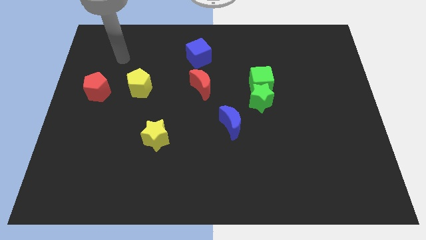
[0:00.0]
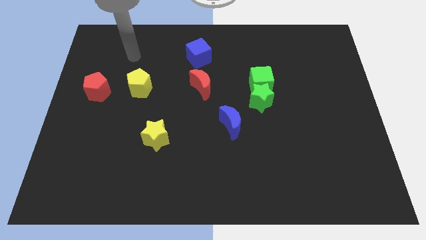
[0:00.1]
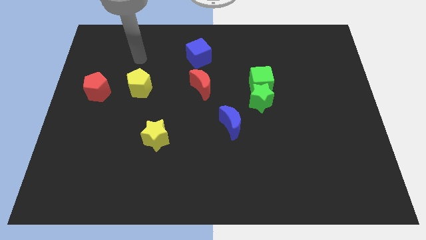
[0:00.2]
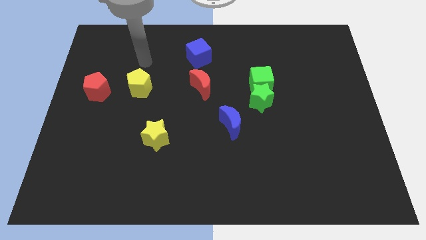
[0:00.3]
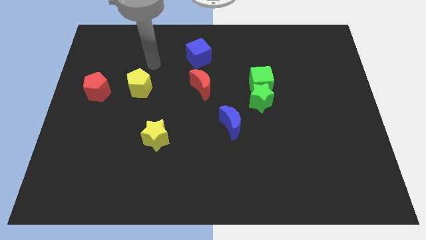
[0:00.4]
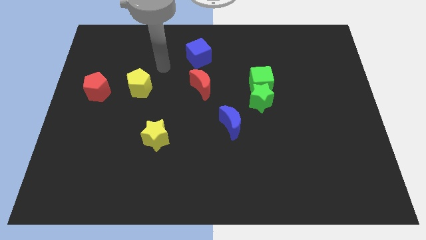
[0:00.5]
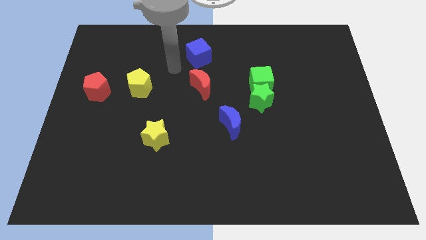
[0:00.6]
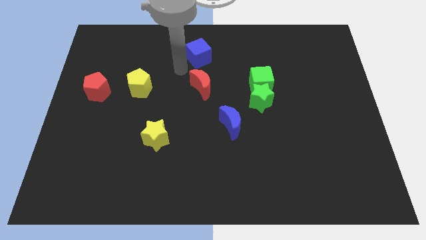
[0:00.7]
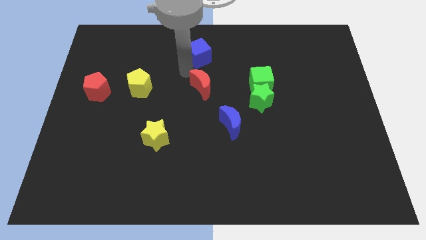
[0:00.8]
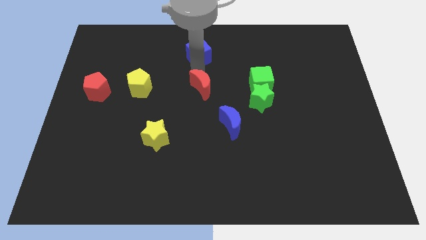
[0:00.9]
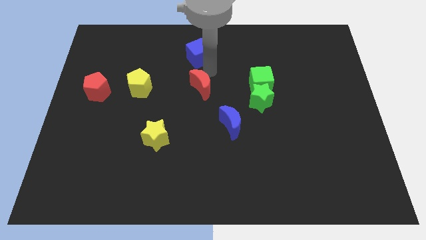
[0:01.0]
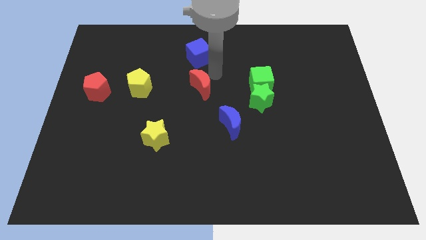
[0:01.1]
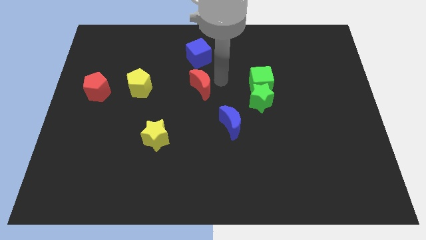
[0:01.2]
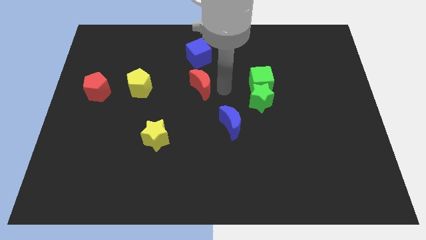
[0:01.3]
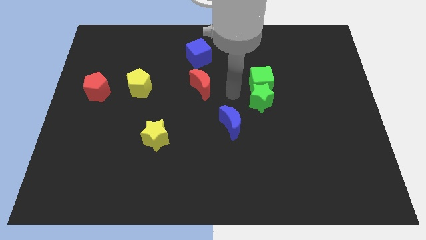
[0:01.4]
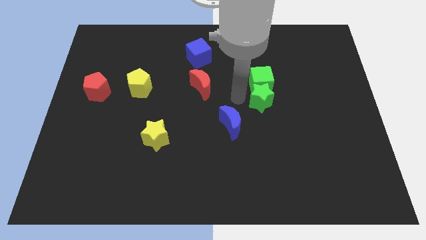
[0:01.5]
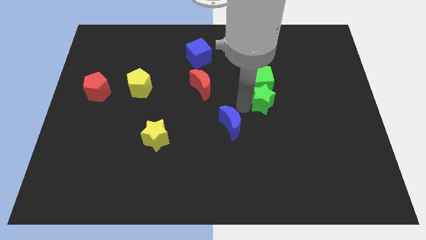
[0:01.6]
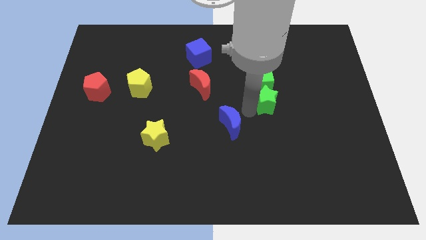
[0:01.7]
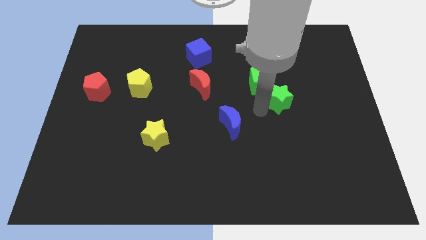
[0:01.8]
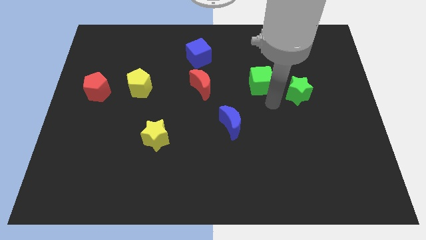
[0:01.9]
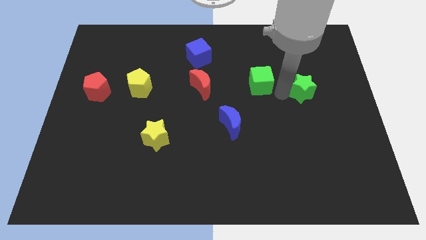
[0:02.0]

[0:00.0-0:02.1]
separate the green cube from the green star

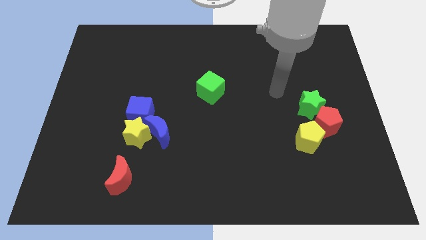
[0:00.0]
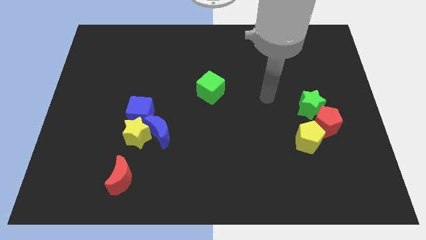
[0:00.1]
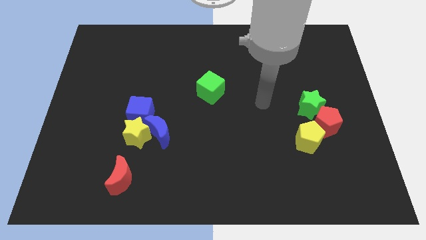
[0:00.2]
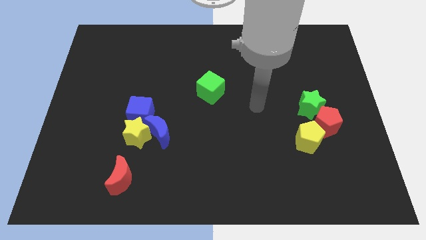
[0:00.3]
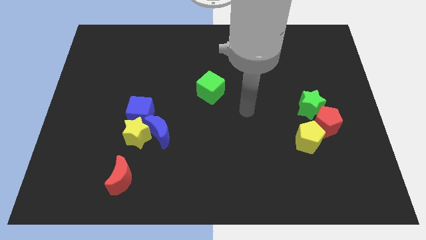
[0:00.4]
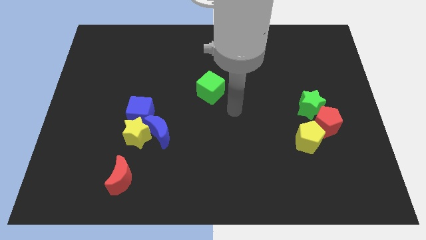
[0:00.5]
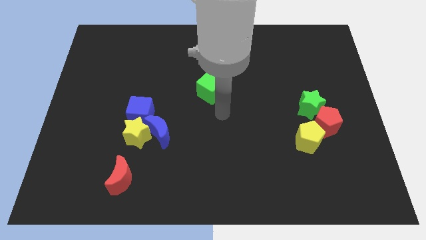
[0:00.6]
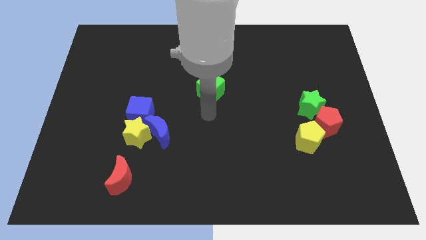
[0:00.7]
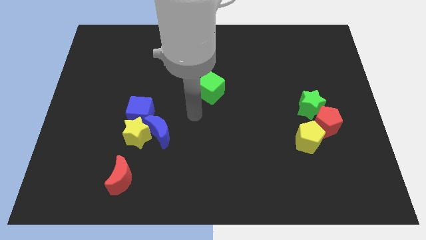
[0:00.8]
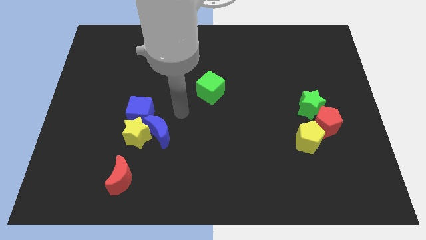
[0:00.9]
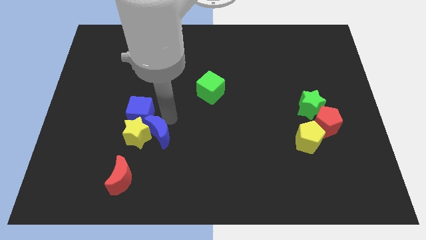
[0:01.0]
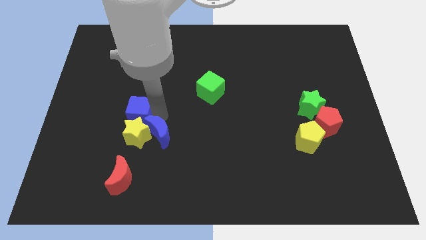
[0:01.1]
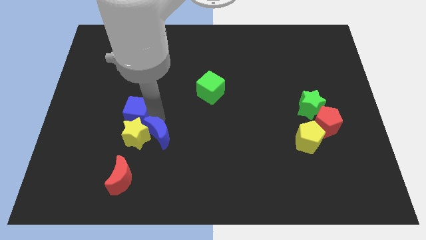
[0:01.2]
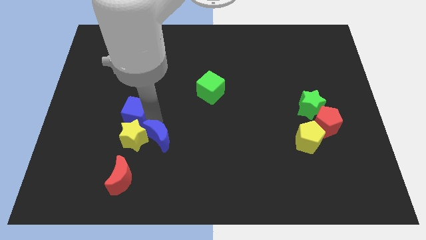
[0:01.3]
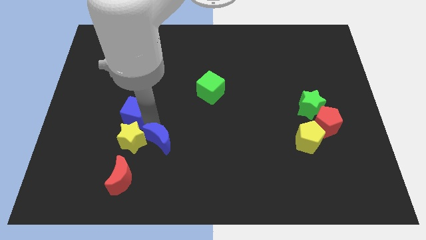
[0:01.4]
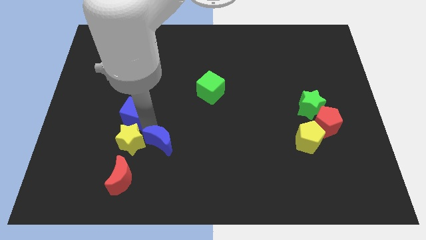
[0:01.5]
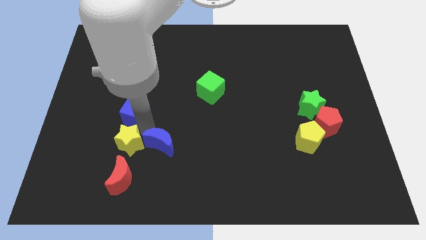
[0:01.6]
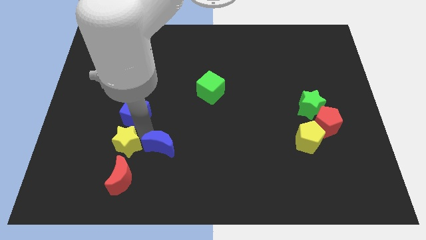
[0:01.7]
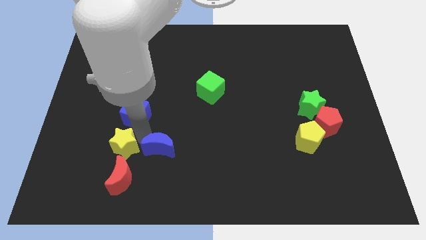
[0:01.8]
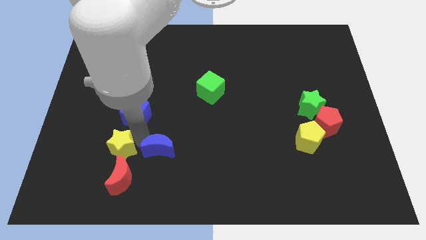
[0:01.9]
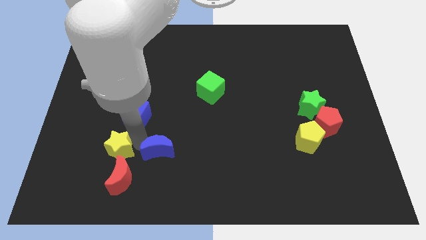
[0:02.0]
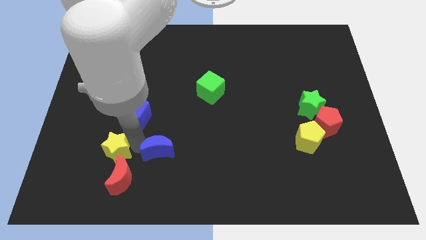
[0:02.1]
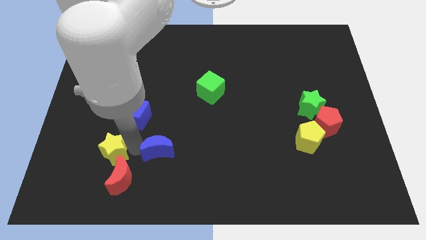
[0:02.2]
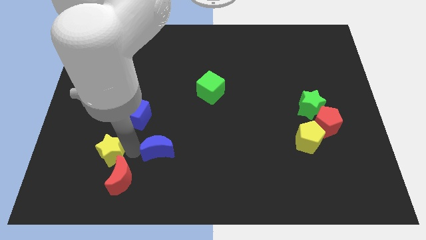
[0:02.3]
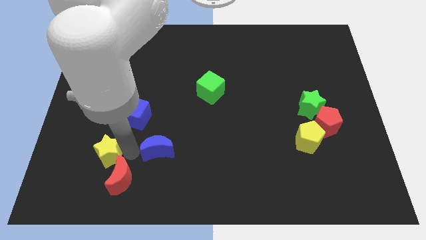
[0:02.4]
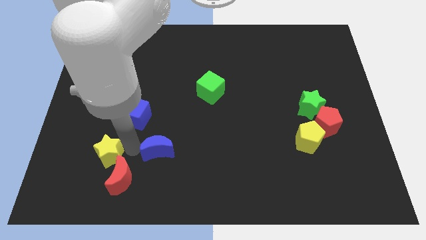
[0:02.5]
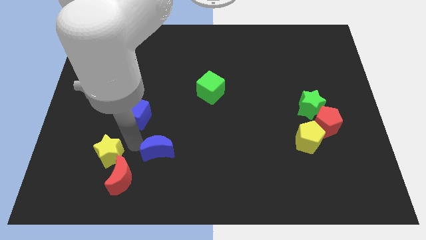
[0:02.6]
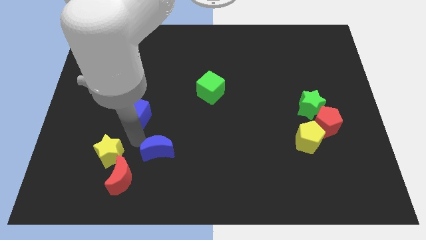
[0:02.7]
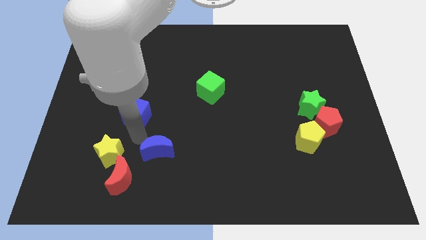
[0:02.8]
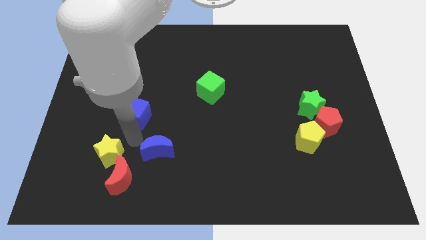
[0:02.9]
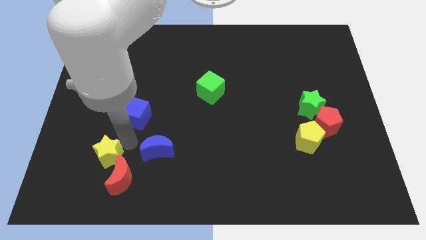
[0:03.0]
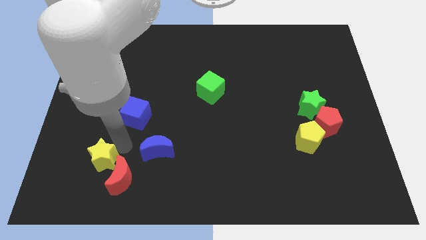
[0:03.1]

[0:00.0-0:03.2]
pull the yellow star apart from the blue moon and blue cube

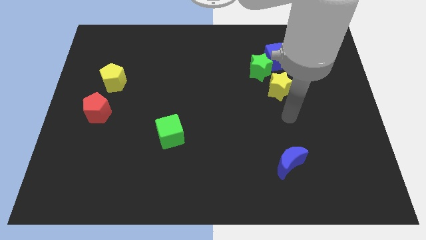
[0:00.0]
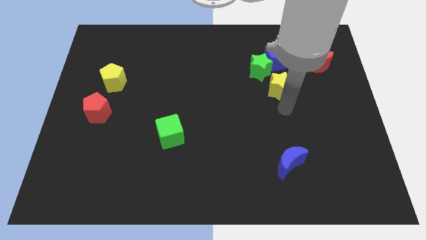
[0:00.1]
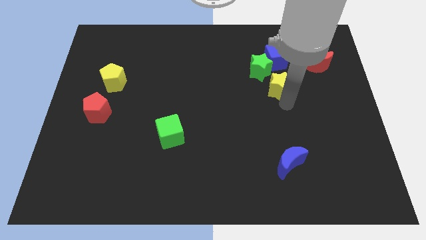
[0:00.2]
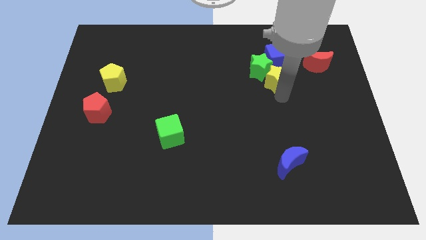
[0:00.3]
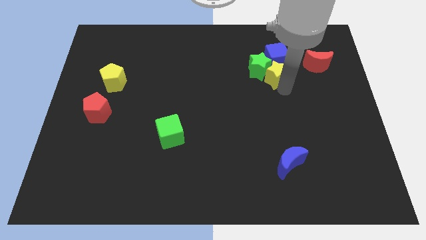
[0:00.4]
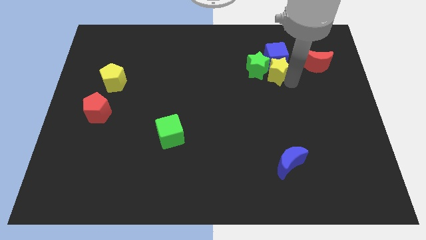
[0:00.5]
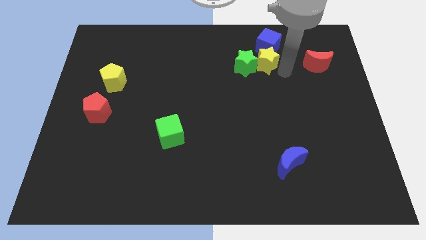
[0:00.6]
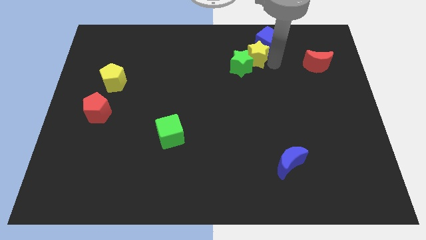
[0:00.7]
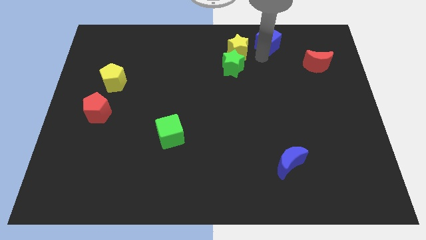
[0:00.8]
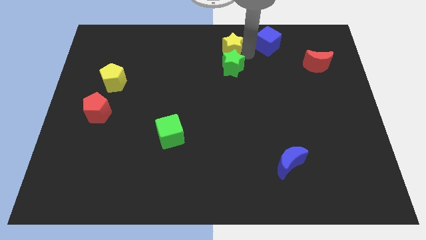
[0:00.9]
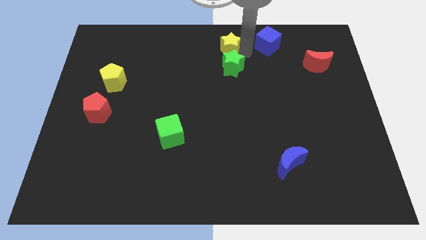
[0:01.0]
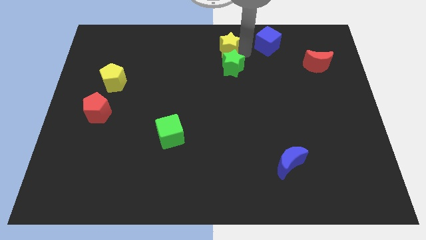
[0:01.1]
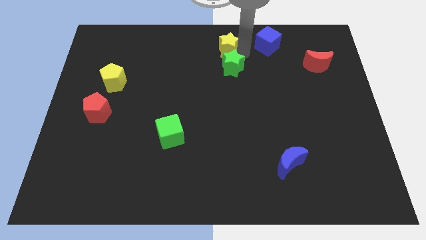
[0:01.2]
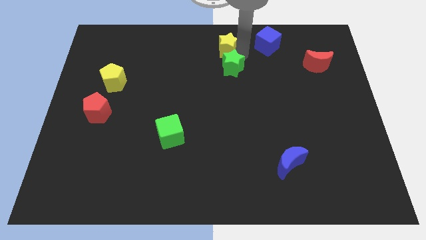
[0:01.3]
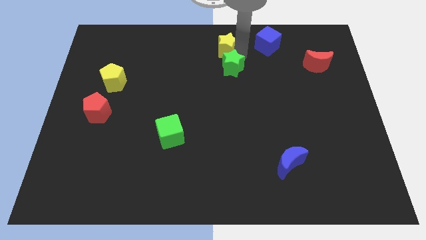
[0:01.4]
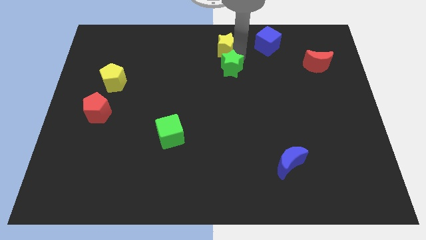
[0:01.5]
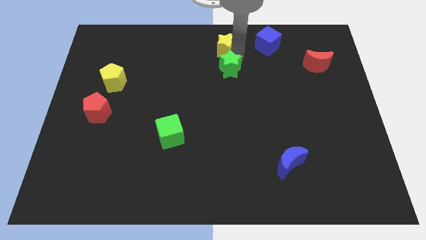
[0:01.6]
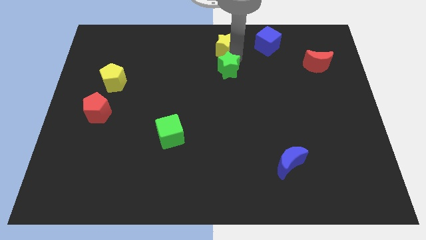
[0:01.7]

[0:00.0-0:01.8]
move the green star away from the blue cube and yellow star

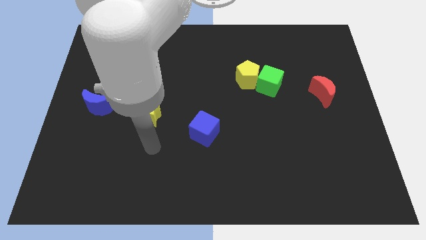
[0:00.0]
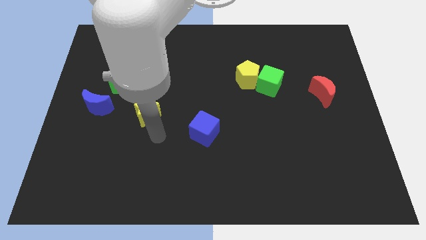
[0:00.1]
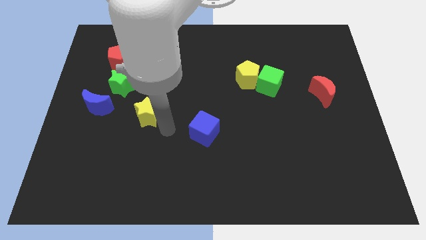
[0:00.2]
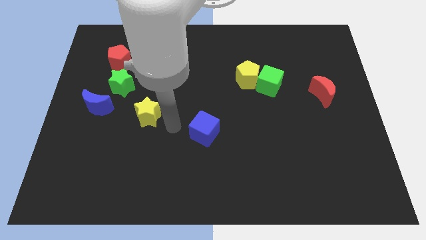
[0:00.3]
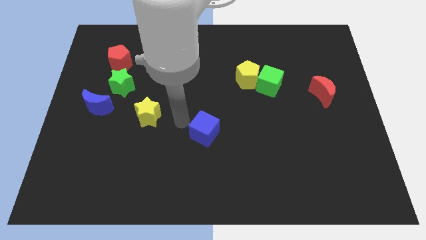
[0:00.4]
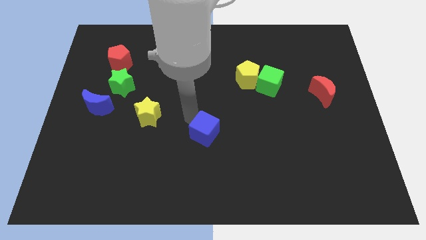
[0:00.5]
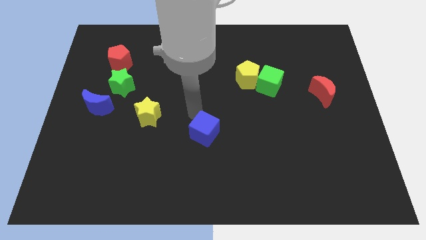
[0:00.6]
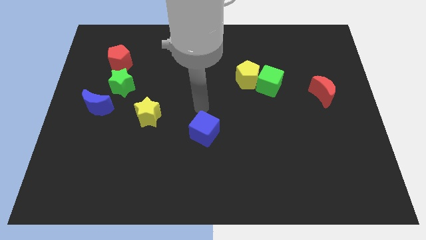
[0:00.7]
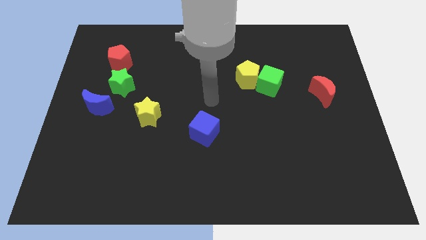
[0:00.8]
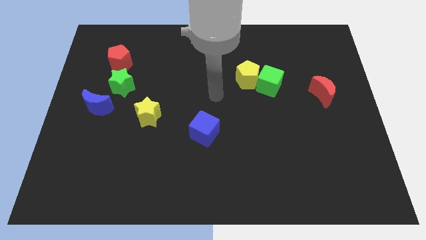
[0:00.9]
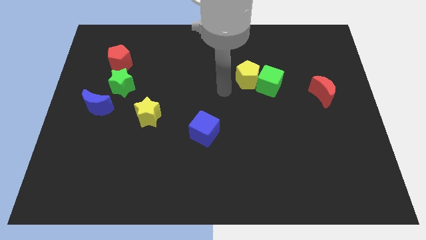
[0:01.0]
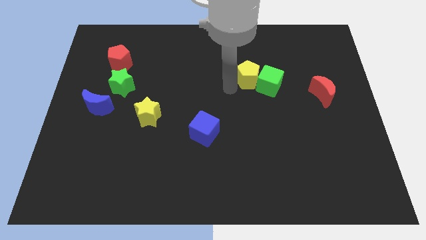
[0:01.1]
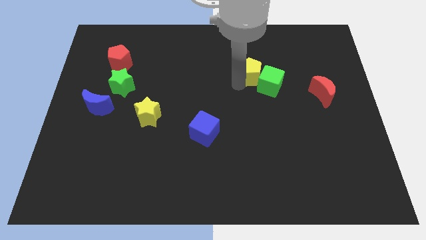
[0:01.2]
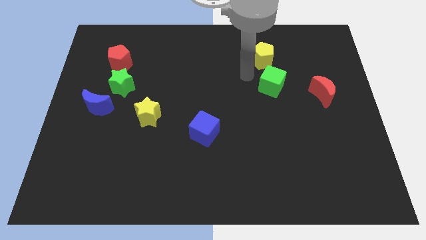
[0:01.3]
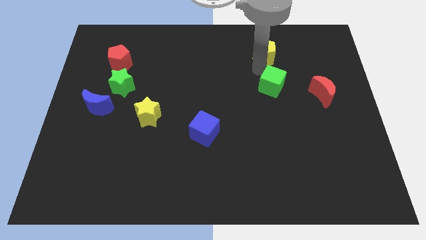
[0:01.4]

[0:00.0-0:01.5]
separate the green cube from the yellow pentagon

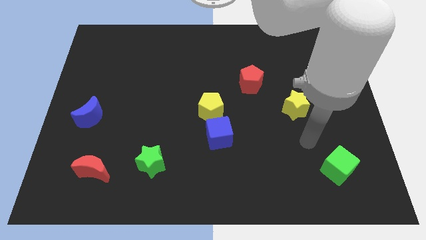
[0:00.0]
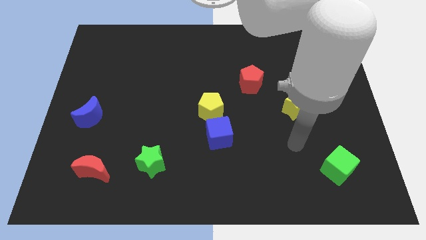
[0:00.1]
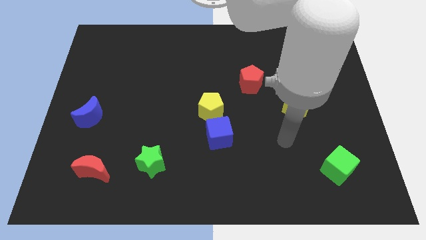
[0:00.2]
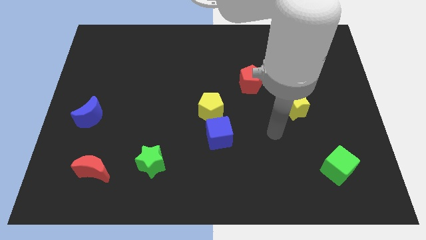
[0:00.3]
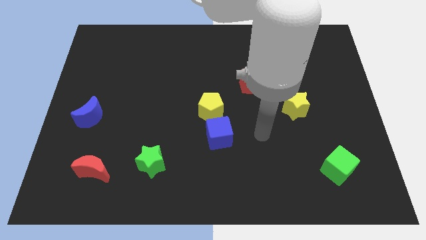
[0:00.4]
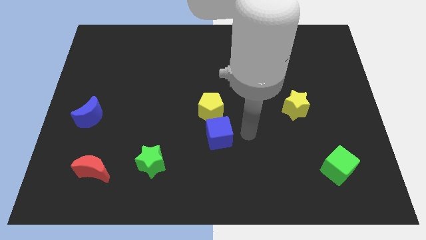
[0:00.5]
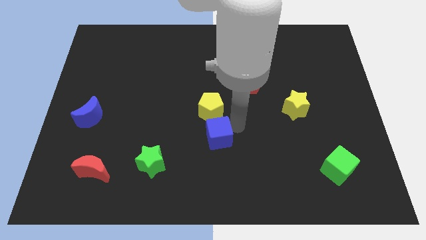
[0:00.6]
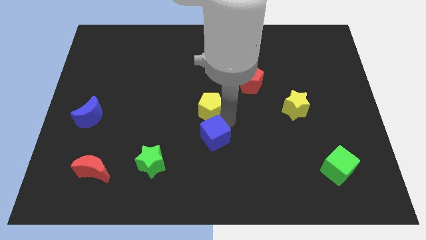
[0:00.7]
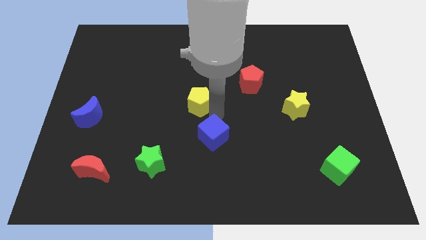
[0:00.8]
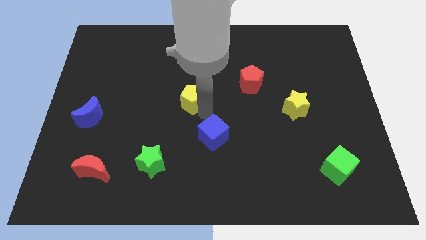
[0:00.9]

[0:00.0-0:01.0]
move the blue cube away from the yellow pentagon
